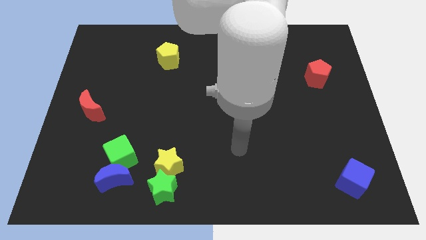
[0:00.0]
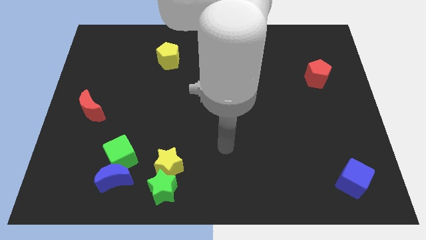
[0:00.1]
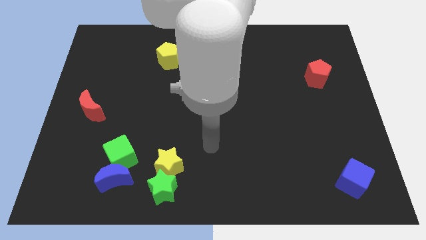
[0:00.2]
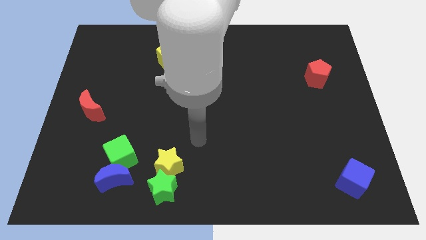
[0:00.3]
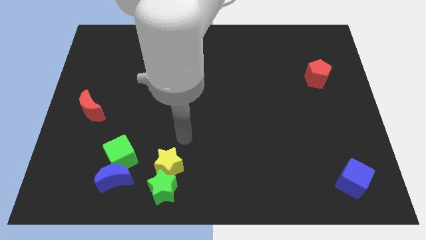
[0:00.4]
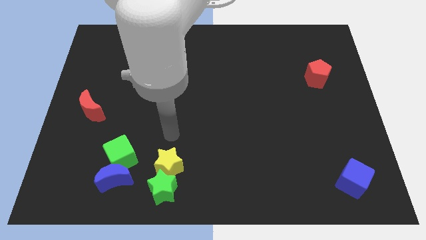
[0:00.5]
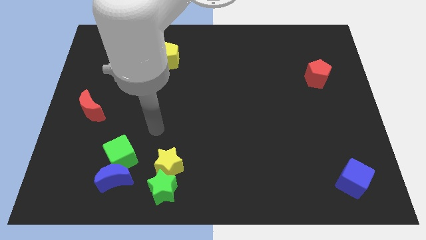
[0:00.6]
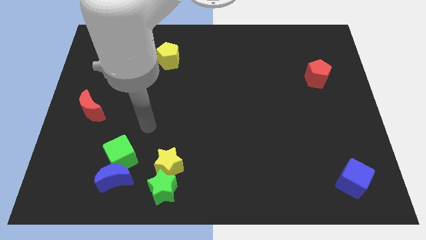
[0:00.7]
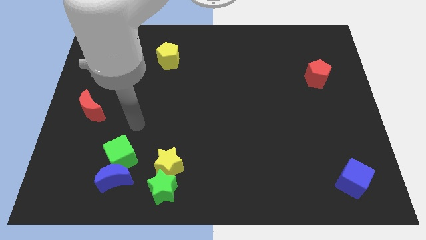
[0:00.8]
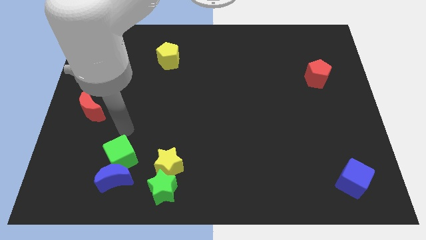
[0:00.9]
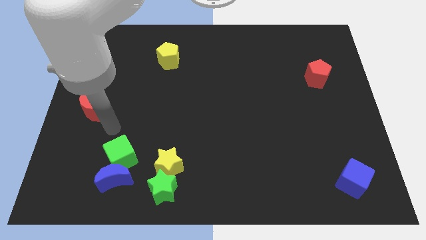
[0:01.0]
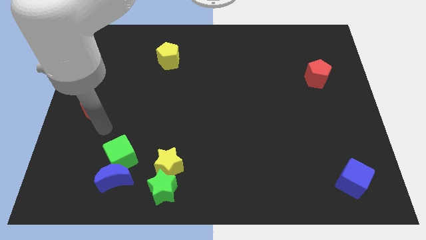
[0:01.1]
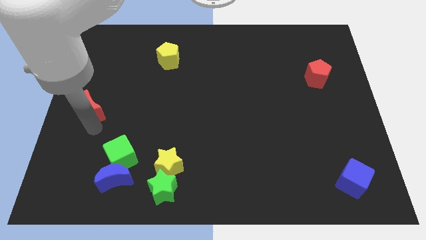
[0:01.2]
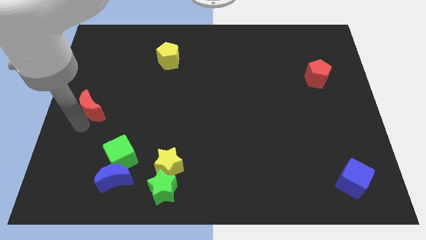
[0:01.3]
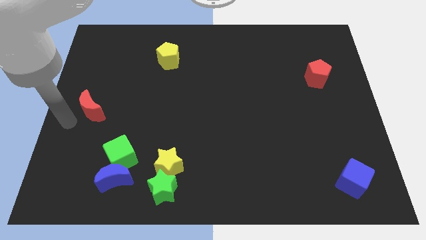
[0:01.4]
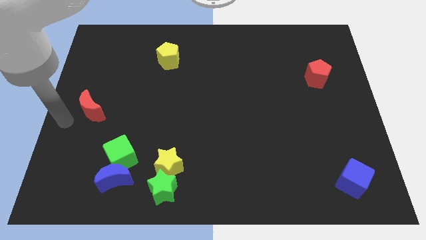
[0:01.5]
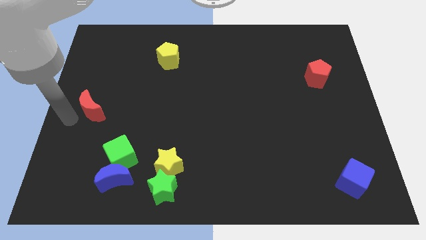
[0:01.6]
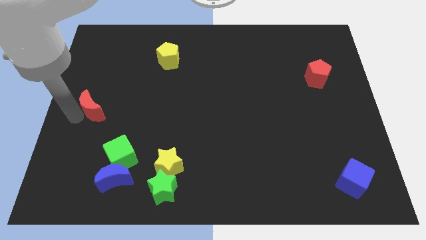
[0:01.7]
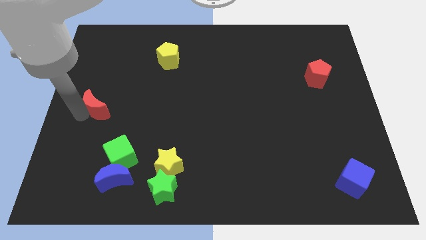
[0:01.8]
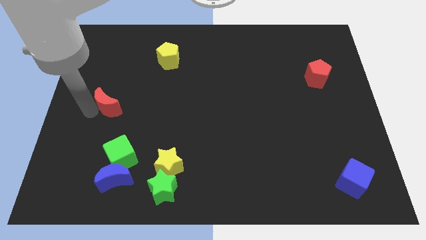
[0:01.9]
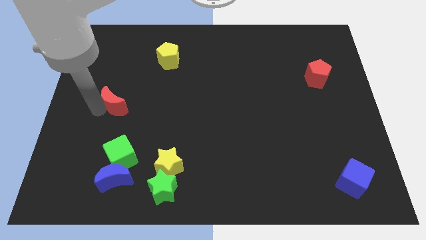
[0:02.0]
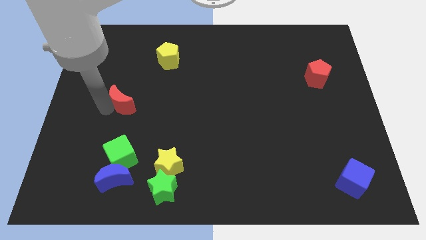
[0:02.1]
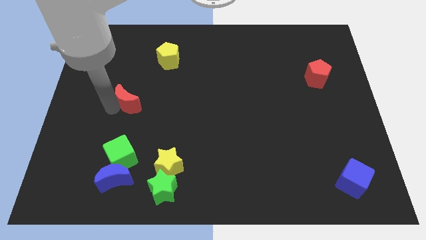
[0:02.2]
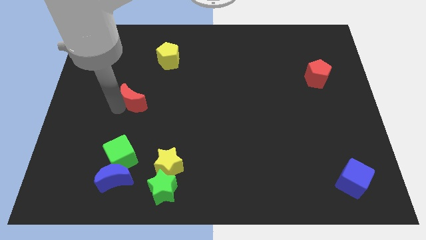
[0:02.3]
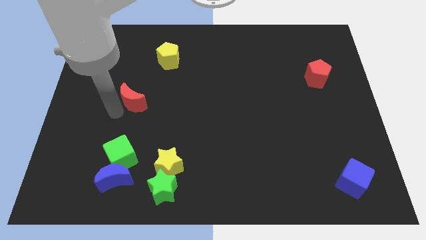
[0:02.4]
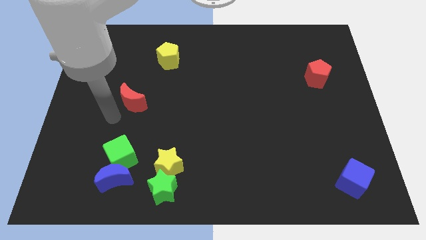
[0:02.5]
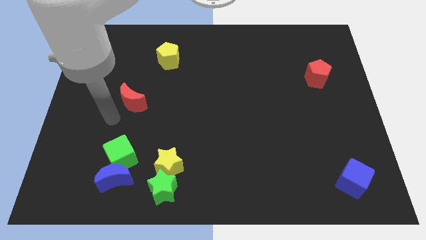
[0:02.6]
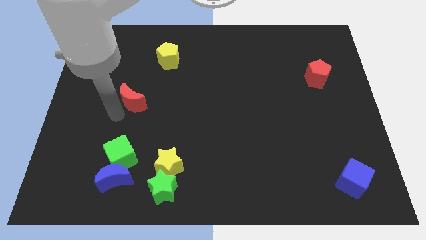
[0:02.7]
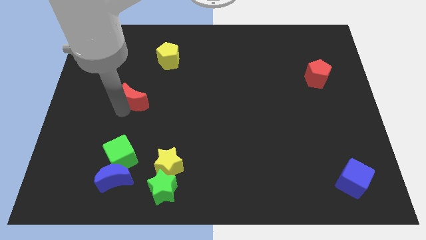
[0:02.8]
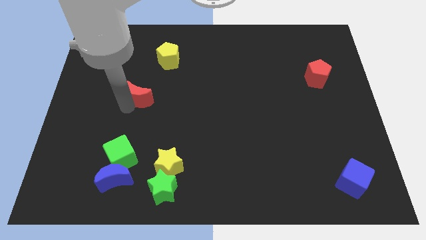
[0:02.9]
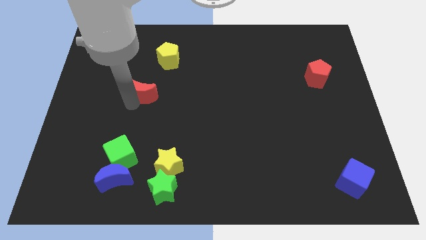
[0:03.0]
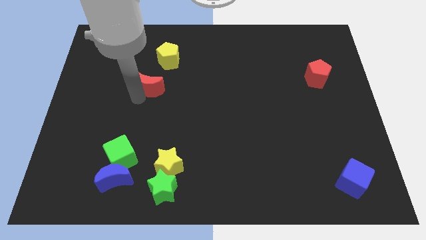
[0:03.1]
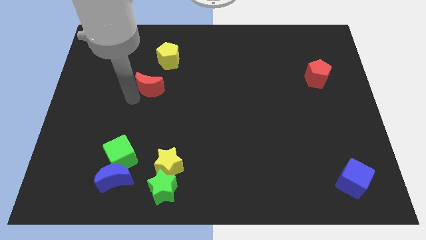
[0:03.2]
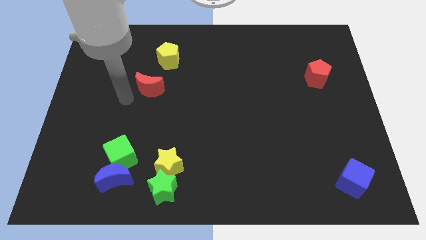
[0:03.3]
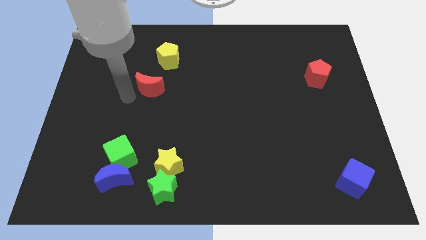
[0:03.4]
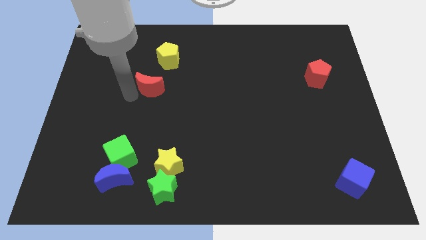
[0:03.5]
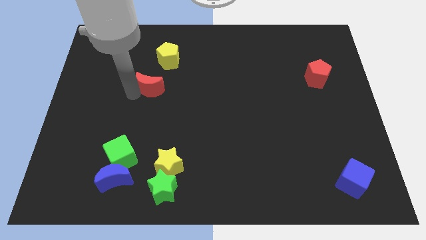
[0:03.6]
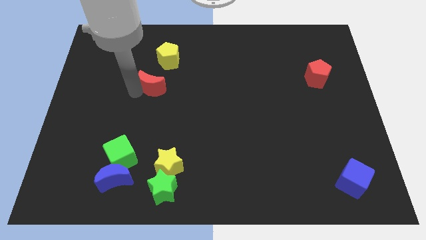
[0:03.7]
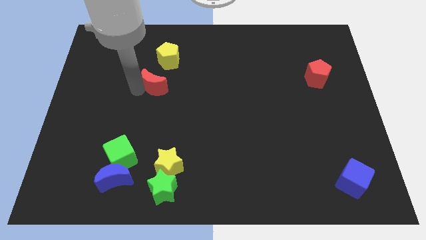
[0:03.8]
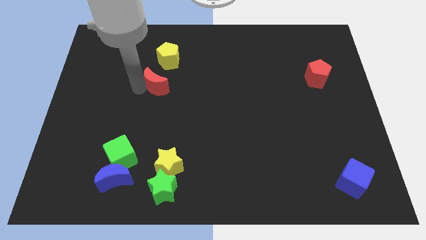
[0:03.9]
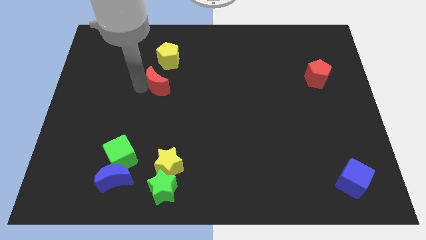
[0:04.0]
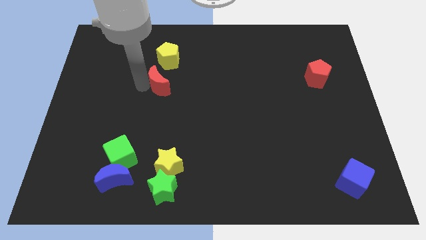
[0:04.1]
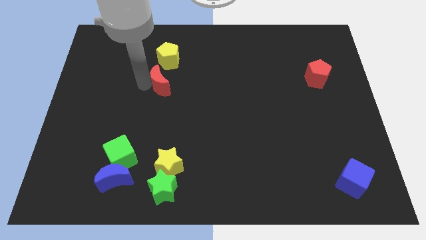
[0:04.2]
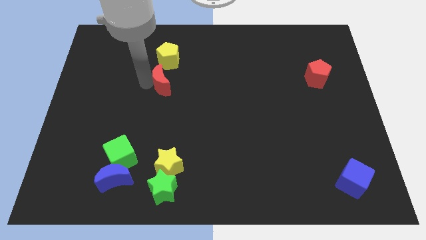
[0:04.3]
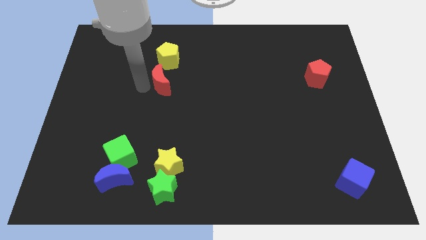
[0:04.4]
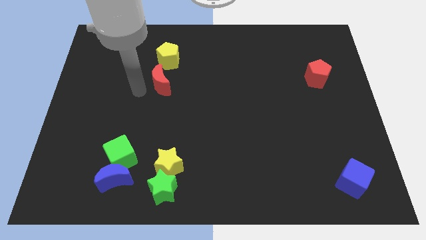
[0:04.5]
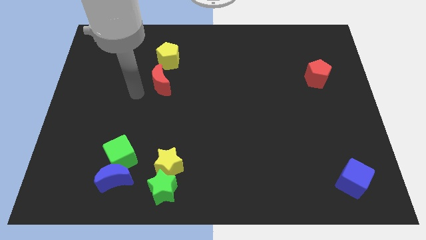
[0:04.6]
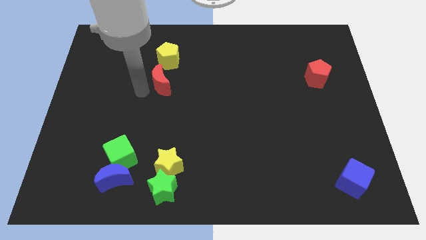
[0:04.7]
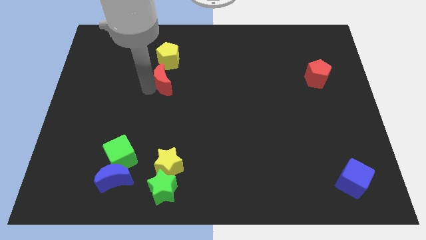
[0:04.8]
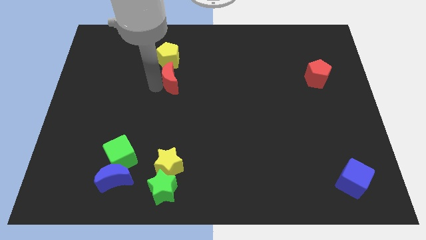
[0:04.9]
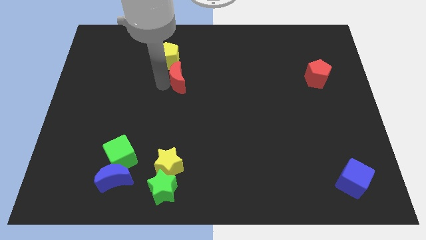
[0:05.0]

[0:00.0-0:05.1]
push the red moon to the bottom right of the yellow pentagon

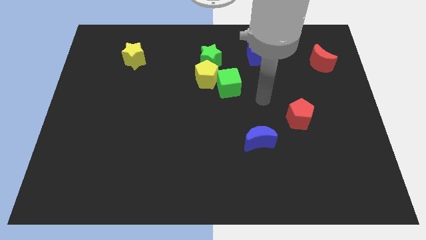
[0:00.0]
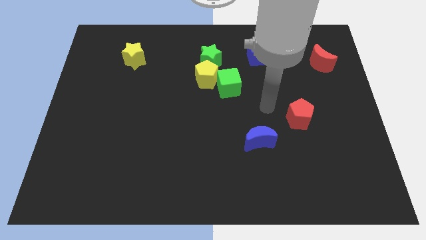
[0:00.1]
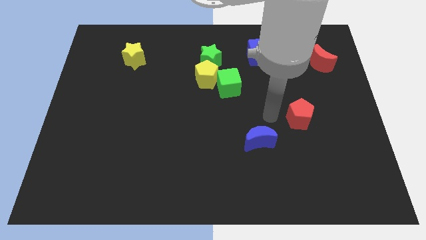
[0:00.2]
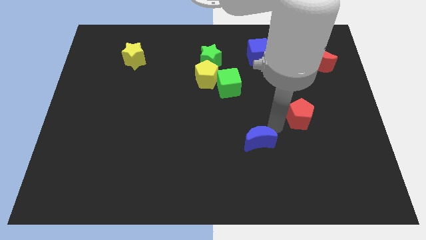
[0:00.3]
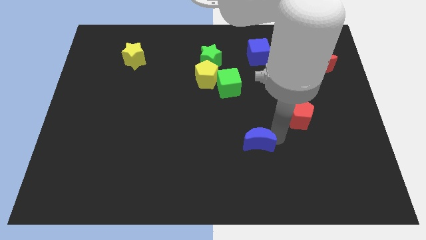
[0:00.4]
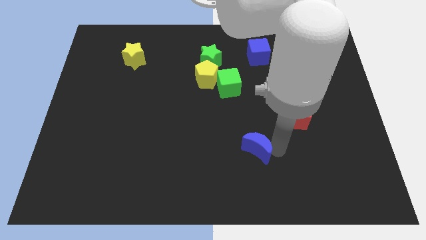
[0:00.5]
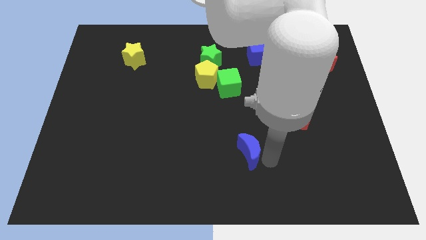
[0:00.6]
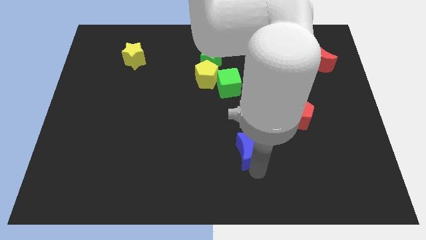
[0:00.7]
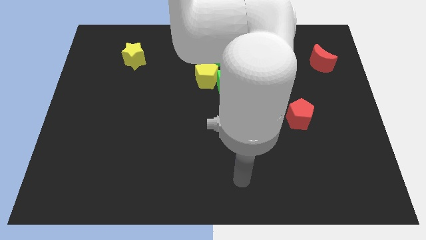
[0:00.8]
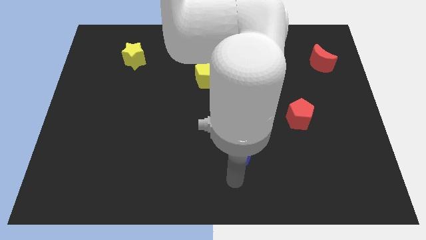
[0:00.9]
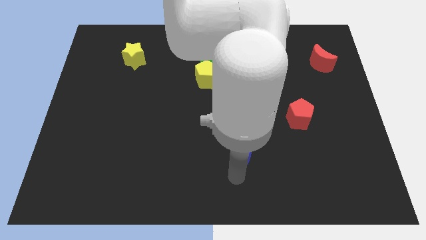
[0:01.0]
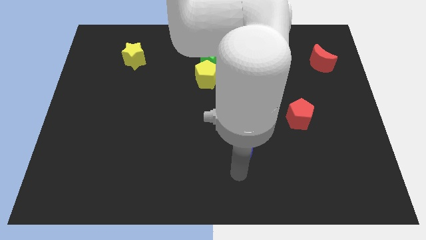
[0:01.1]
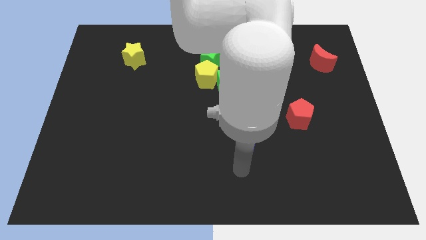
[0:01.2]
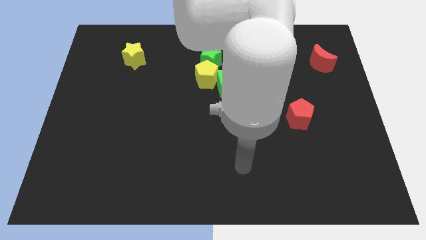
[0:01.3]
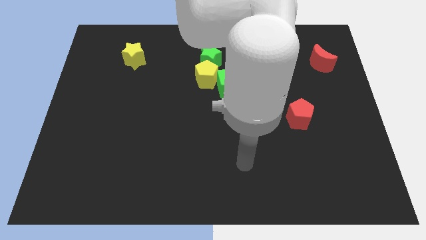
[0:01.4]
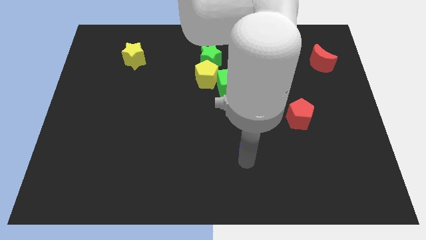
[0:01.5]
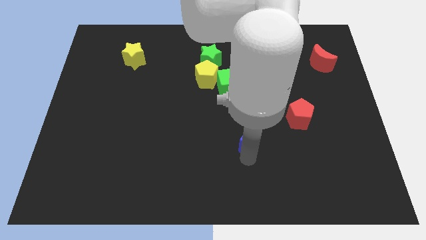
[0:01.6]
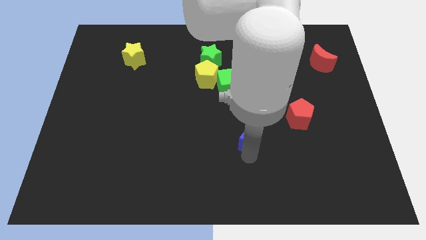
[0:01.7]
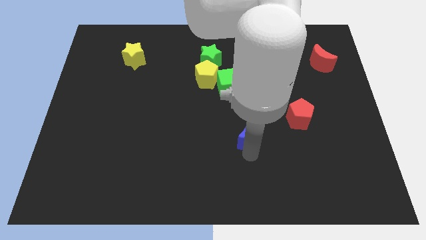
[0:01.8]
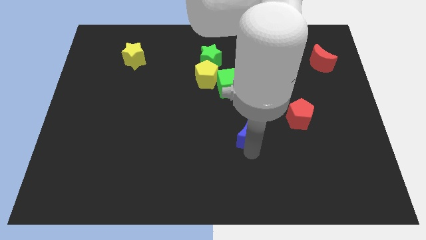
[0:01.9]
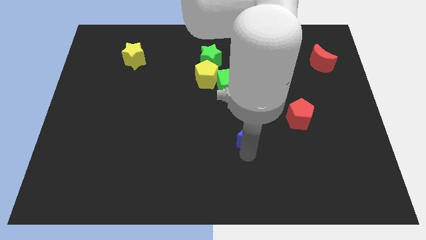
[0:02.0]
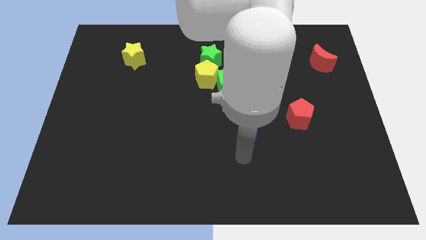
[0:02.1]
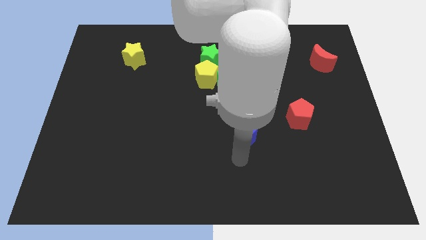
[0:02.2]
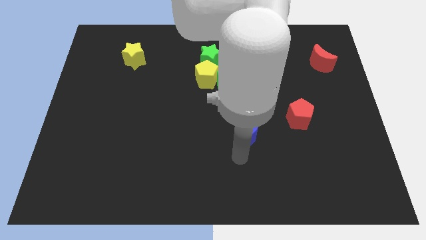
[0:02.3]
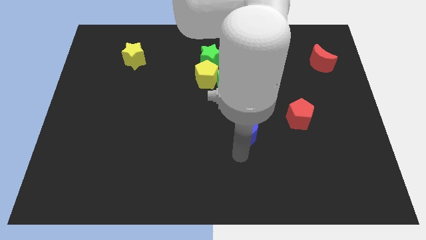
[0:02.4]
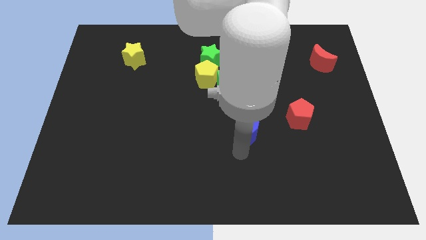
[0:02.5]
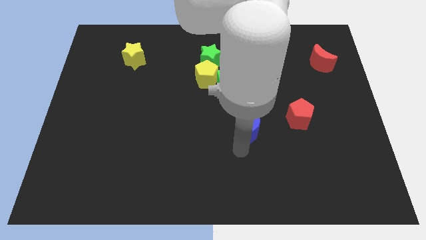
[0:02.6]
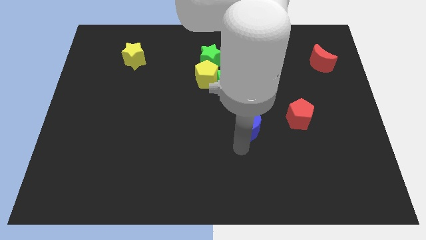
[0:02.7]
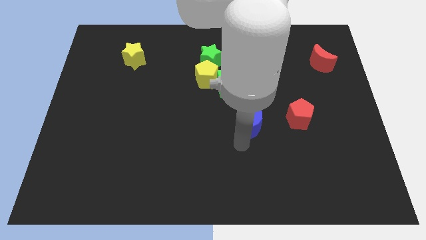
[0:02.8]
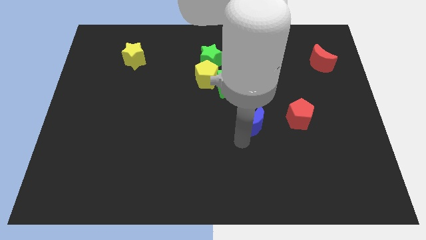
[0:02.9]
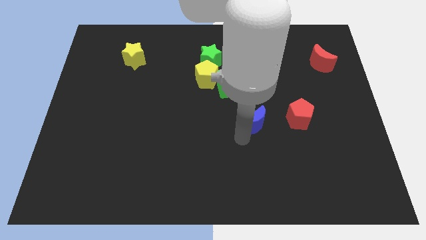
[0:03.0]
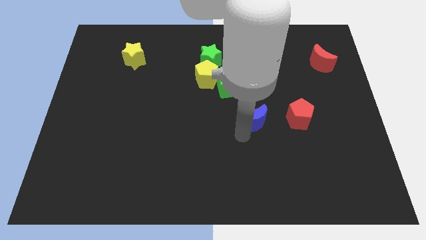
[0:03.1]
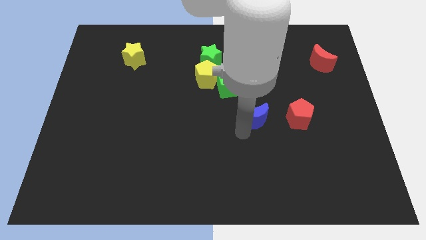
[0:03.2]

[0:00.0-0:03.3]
put the blue moon diagonally down and to the right of the green cube

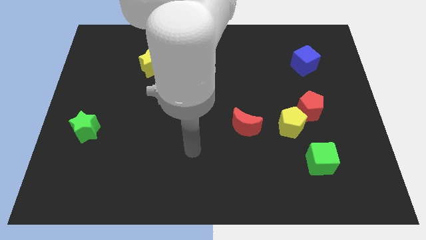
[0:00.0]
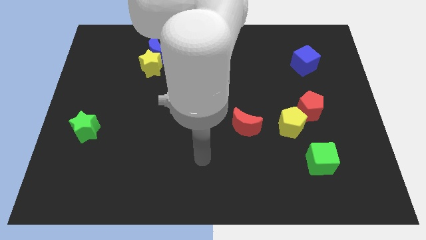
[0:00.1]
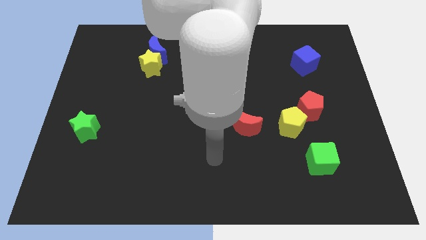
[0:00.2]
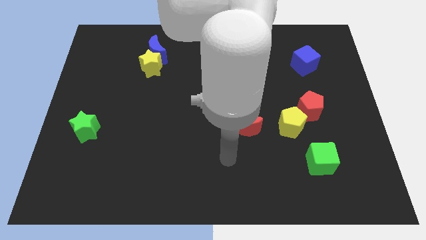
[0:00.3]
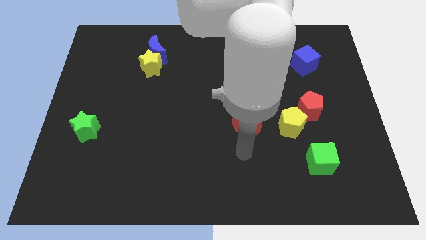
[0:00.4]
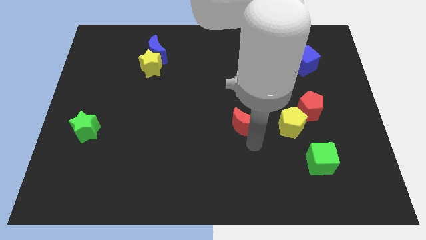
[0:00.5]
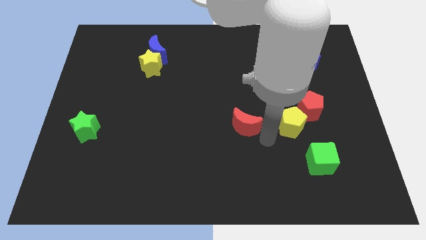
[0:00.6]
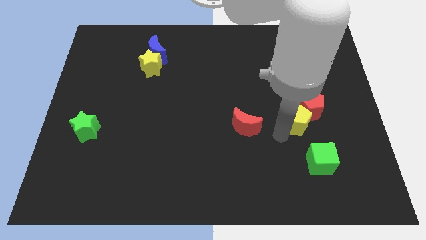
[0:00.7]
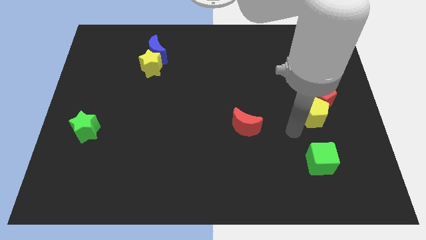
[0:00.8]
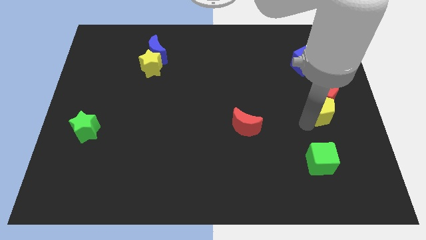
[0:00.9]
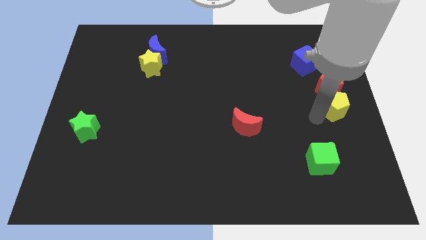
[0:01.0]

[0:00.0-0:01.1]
slide the red pentagon diagonally down and to the right of the blue cube
